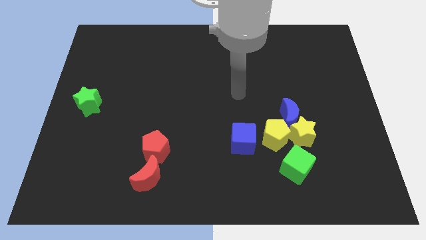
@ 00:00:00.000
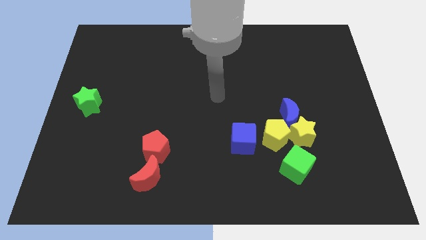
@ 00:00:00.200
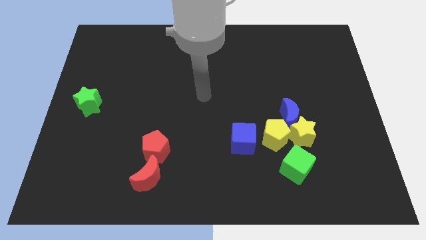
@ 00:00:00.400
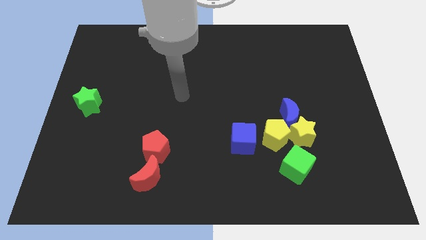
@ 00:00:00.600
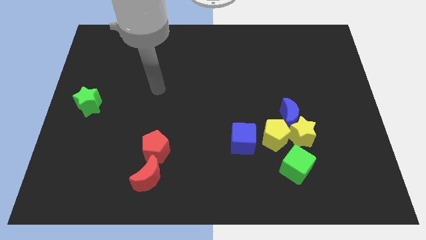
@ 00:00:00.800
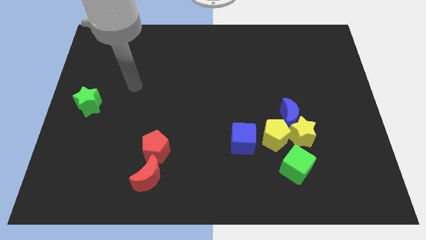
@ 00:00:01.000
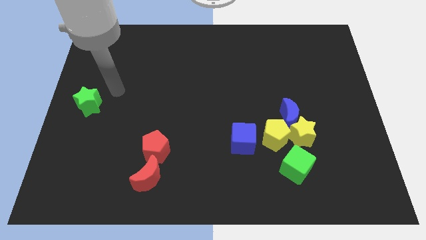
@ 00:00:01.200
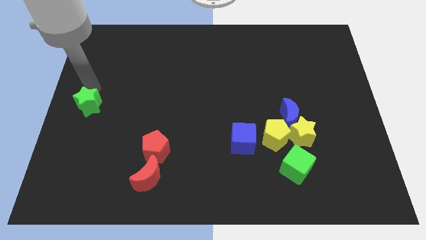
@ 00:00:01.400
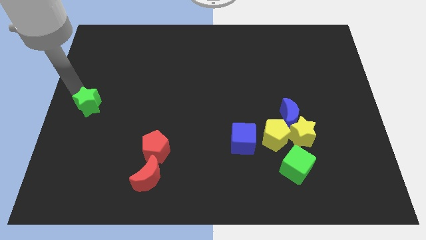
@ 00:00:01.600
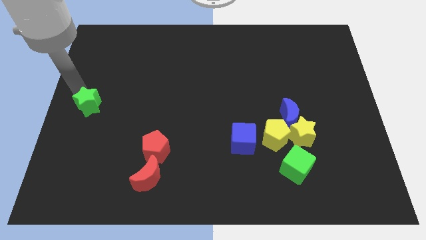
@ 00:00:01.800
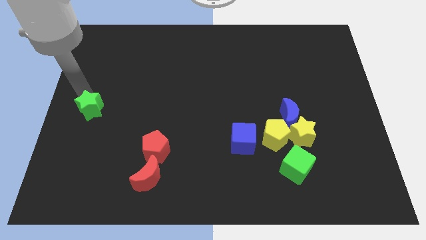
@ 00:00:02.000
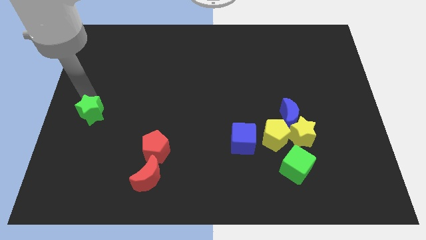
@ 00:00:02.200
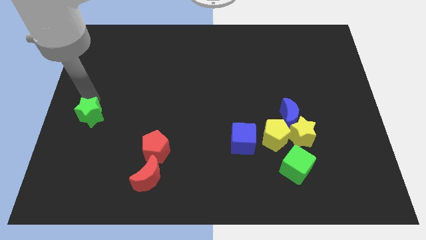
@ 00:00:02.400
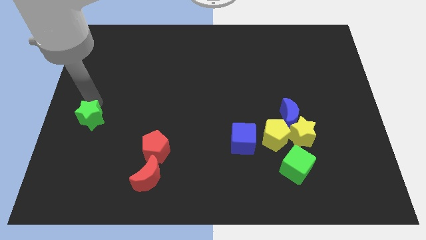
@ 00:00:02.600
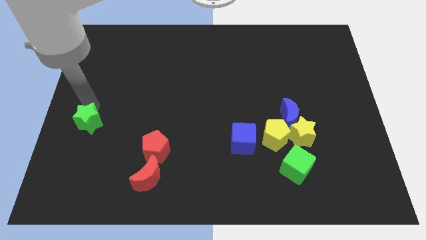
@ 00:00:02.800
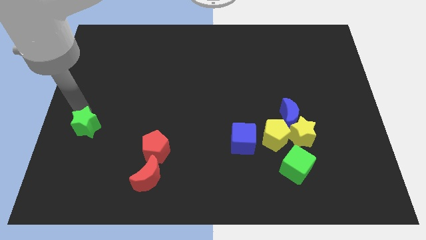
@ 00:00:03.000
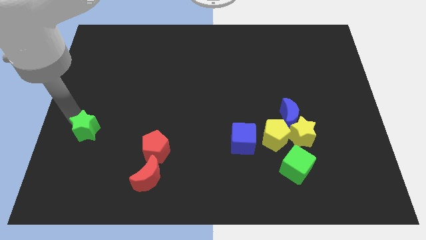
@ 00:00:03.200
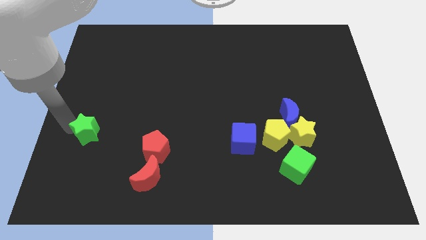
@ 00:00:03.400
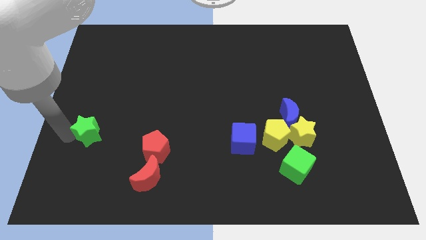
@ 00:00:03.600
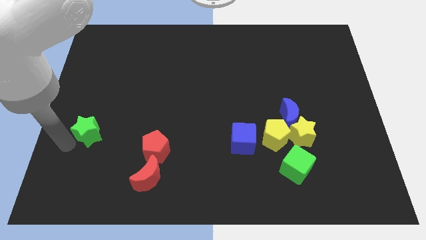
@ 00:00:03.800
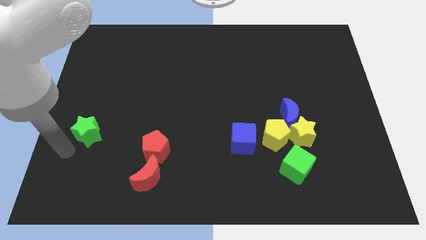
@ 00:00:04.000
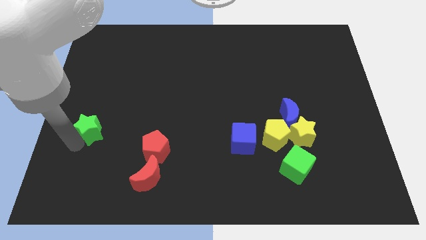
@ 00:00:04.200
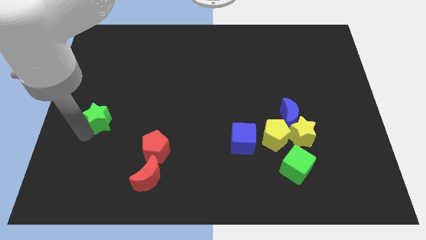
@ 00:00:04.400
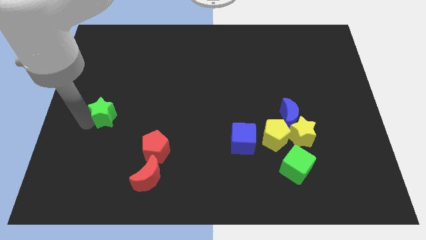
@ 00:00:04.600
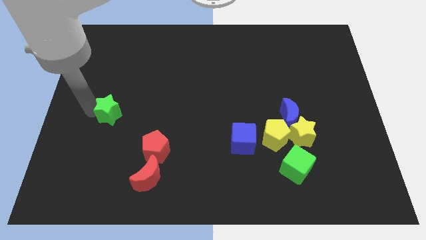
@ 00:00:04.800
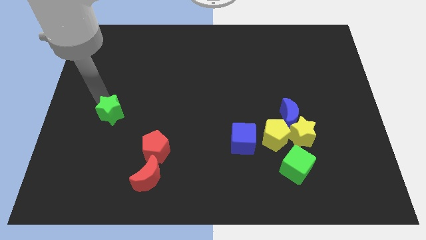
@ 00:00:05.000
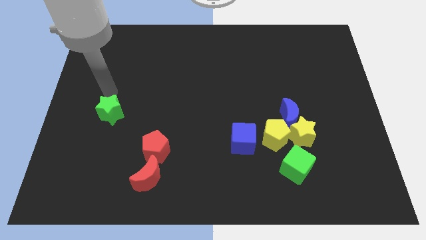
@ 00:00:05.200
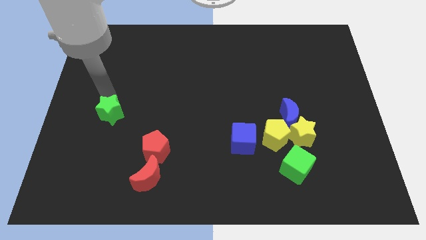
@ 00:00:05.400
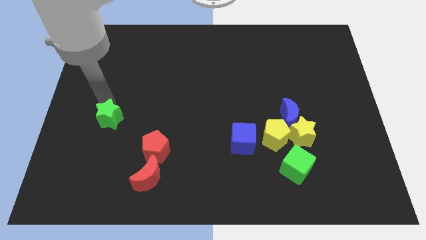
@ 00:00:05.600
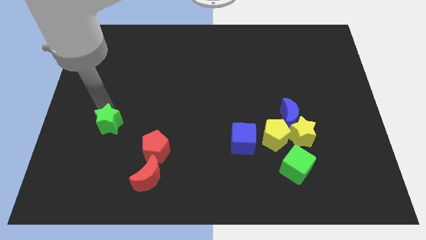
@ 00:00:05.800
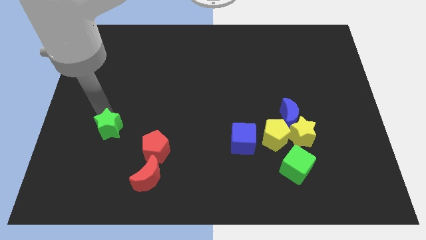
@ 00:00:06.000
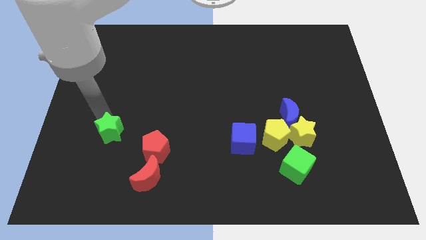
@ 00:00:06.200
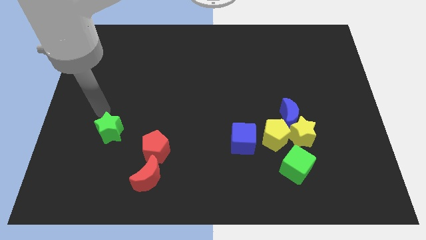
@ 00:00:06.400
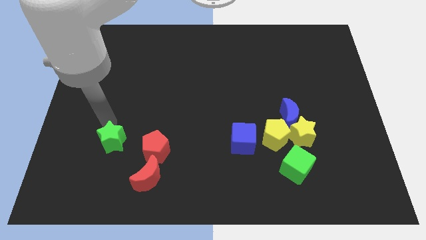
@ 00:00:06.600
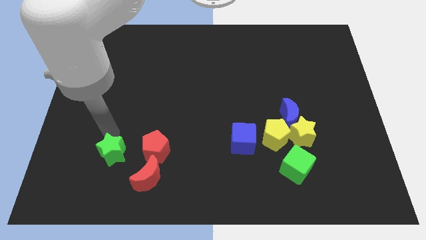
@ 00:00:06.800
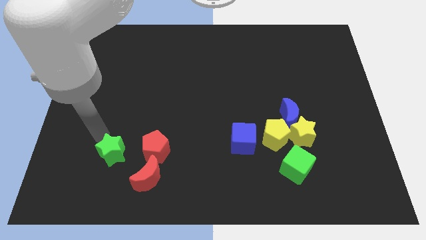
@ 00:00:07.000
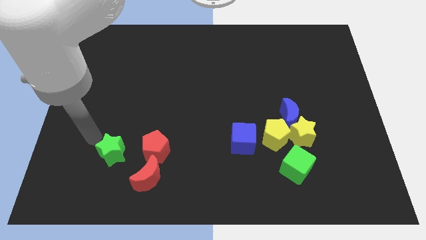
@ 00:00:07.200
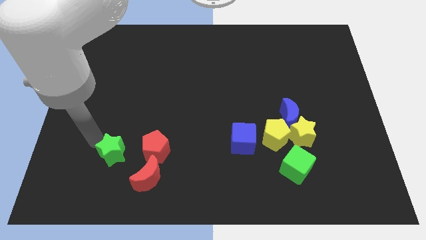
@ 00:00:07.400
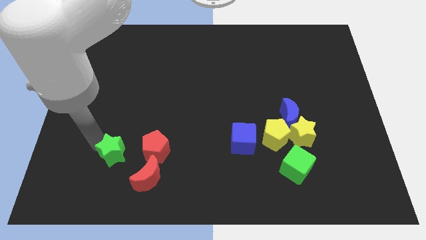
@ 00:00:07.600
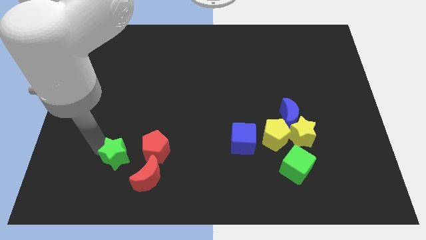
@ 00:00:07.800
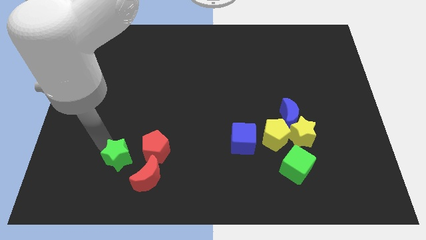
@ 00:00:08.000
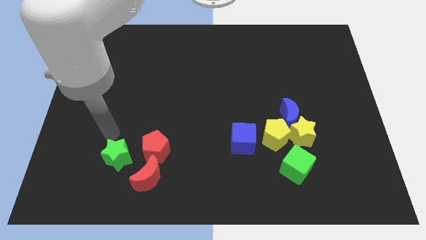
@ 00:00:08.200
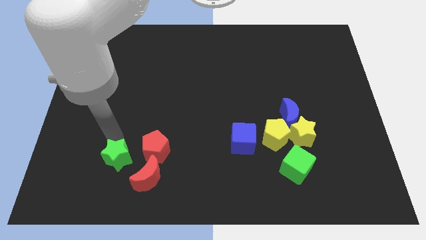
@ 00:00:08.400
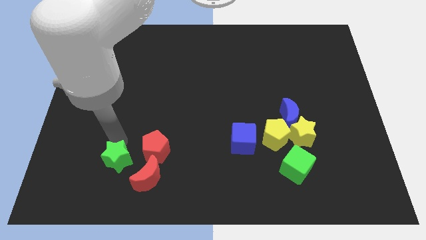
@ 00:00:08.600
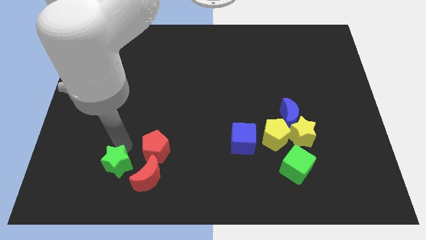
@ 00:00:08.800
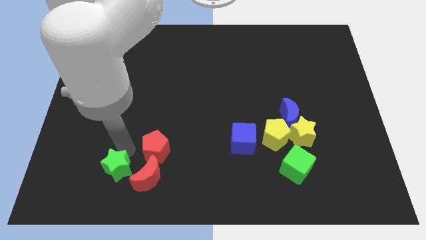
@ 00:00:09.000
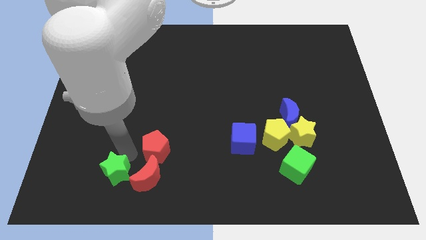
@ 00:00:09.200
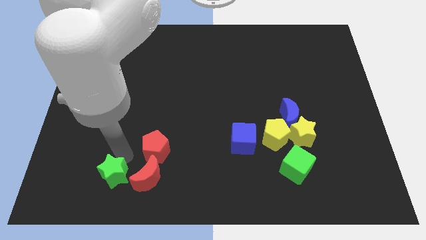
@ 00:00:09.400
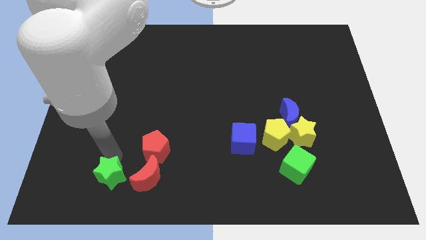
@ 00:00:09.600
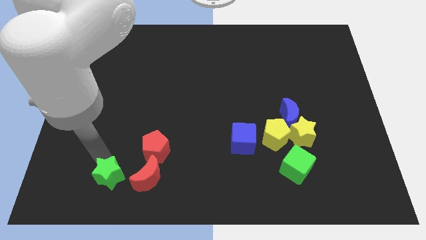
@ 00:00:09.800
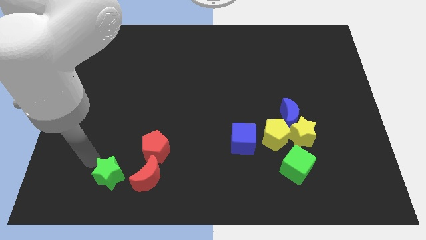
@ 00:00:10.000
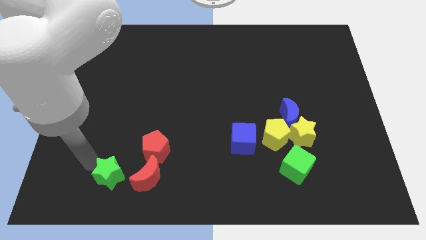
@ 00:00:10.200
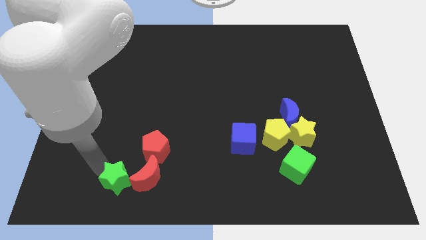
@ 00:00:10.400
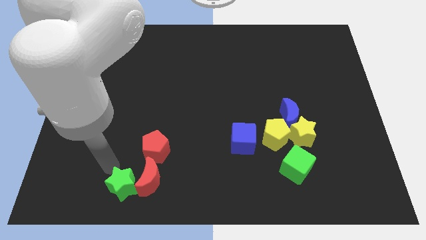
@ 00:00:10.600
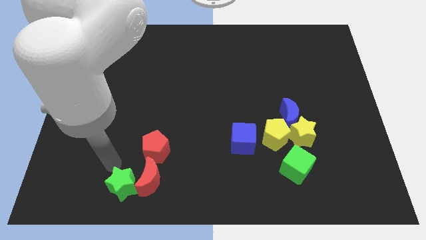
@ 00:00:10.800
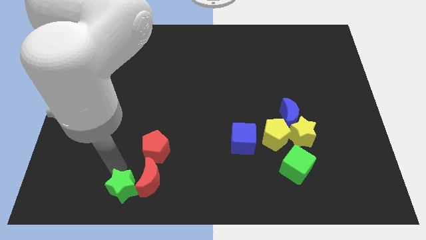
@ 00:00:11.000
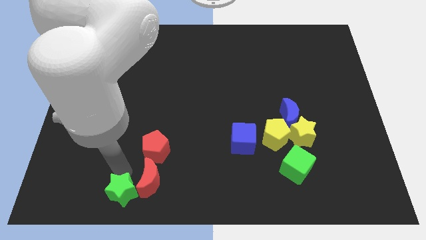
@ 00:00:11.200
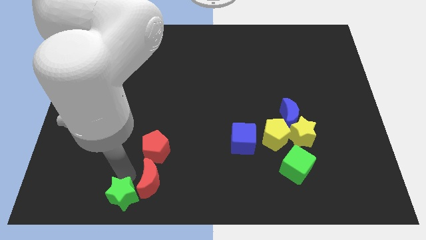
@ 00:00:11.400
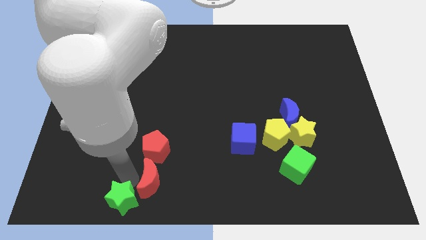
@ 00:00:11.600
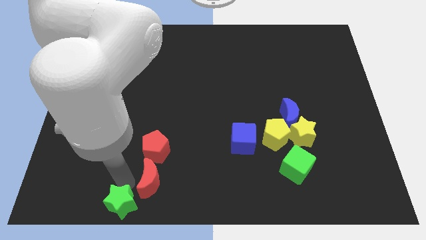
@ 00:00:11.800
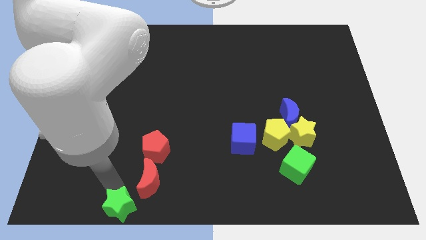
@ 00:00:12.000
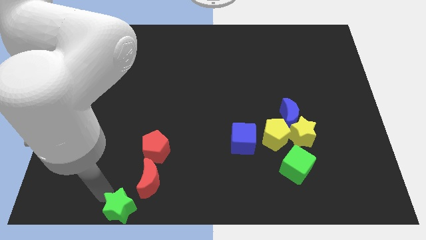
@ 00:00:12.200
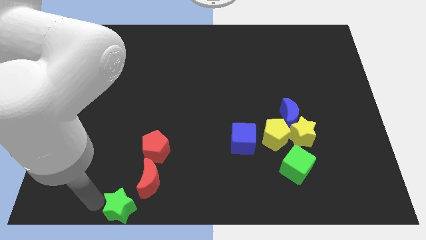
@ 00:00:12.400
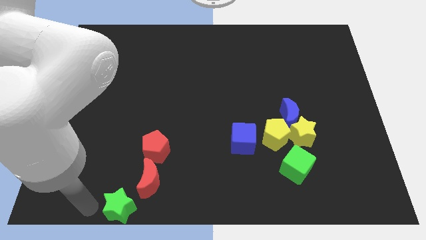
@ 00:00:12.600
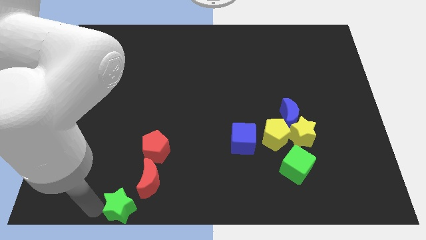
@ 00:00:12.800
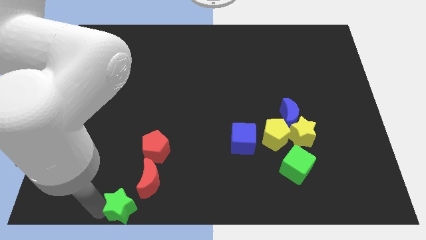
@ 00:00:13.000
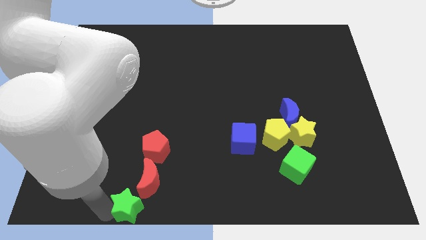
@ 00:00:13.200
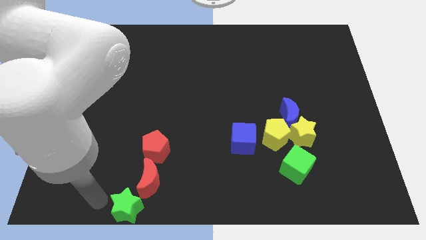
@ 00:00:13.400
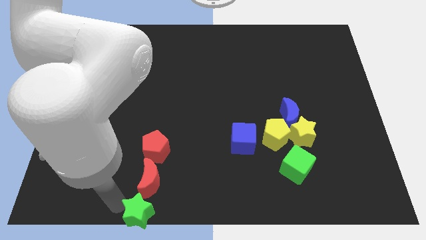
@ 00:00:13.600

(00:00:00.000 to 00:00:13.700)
put the green star to the bottom side
